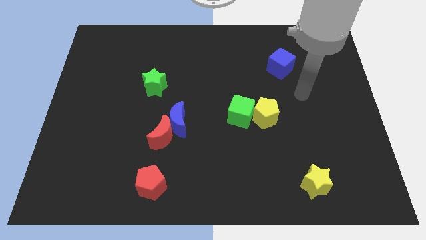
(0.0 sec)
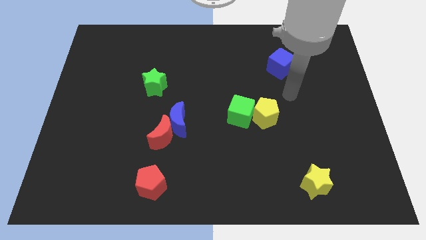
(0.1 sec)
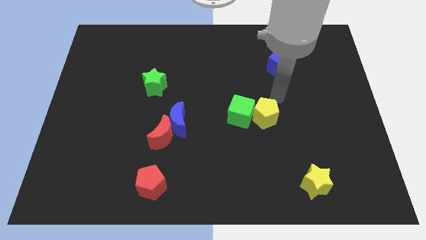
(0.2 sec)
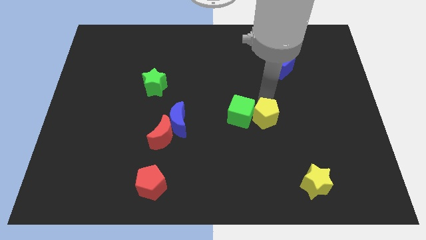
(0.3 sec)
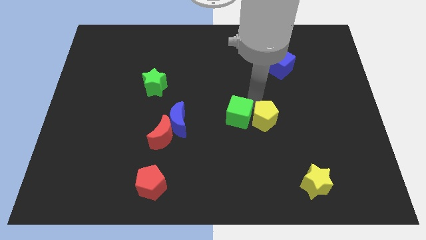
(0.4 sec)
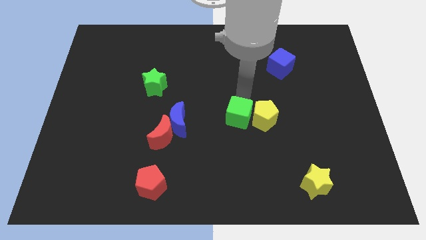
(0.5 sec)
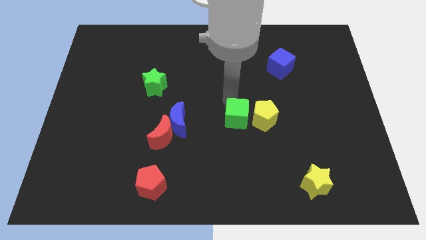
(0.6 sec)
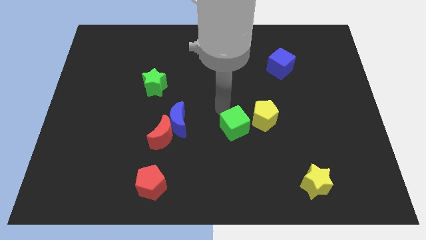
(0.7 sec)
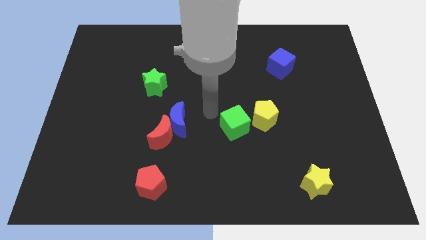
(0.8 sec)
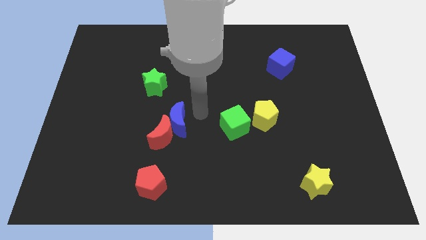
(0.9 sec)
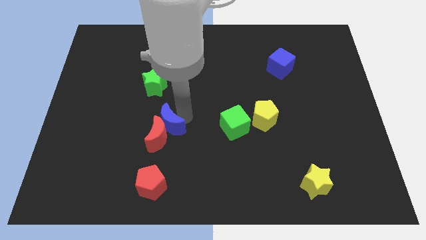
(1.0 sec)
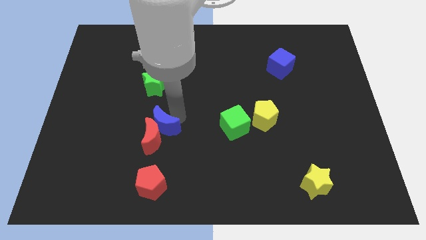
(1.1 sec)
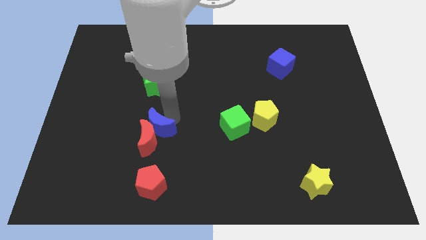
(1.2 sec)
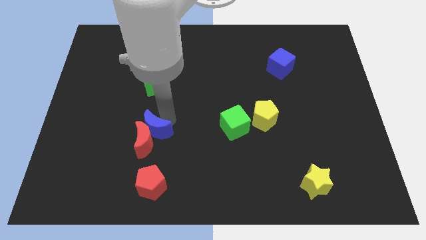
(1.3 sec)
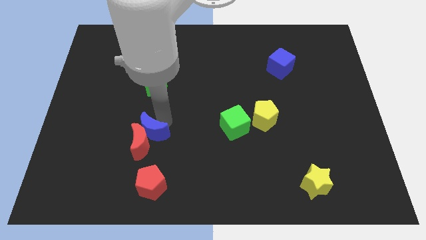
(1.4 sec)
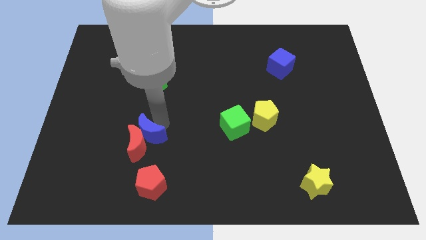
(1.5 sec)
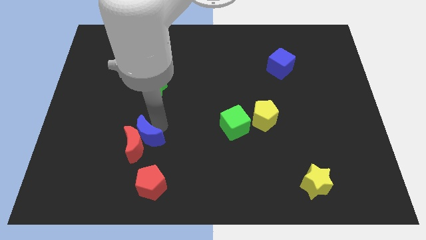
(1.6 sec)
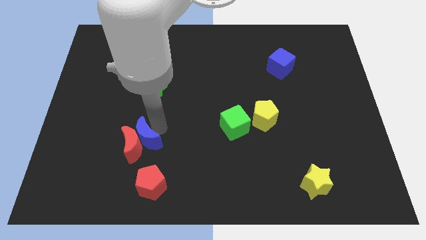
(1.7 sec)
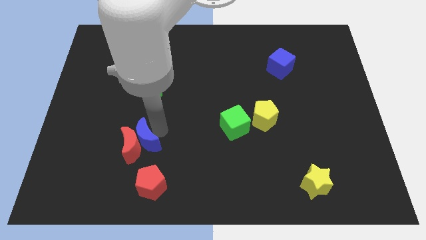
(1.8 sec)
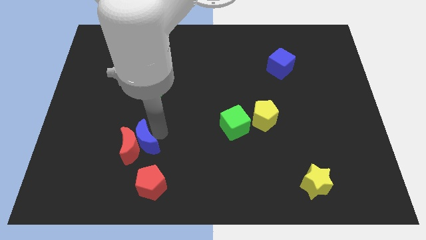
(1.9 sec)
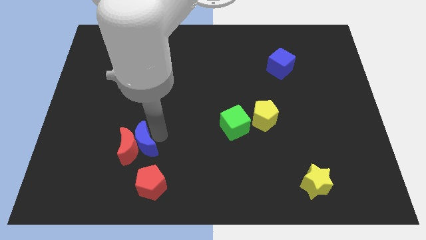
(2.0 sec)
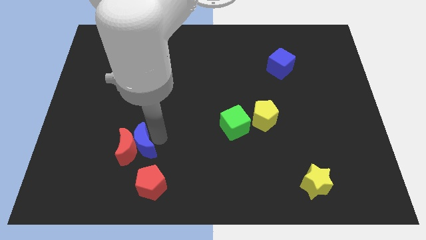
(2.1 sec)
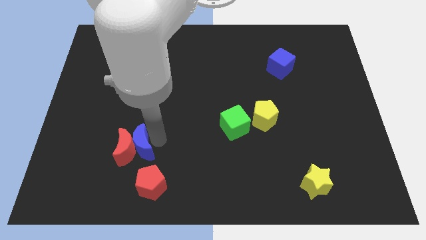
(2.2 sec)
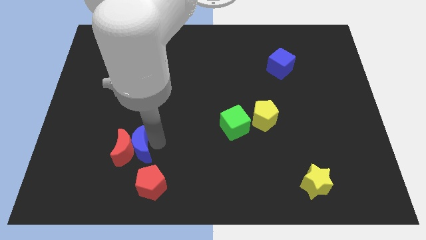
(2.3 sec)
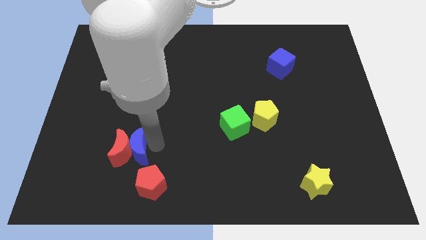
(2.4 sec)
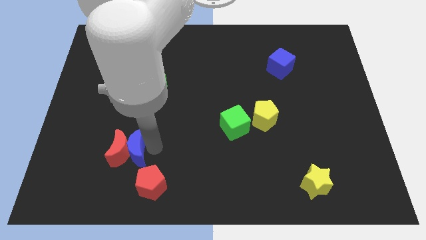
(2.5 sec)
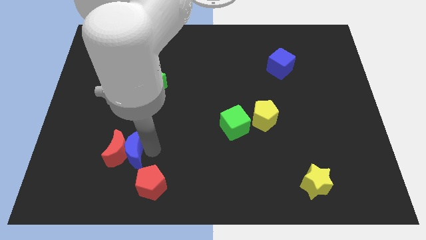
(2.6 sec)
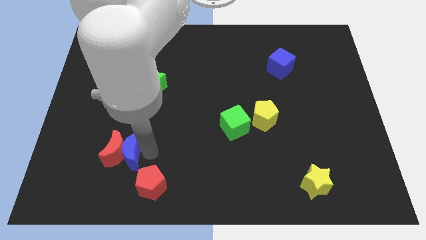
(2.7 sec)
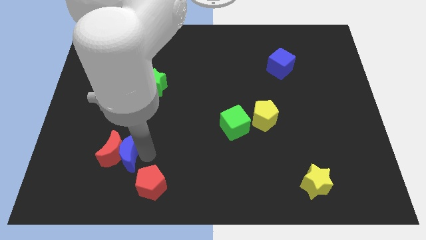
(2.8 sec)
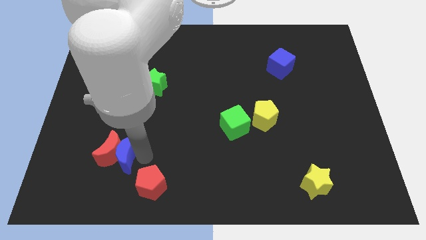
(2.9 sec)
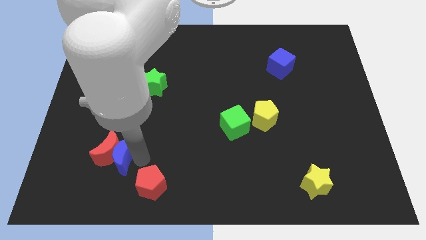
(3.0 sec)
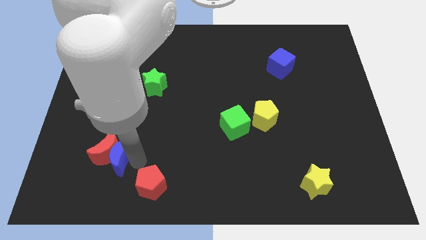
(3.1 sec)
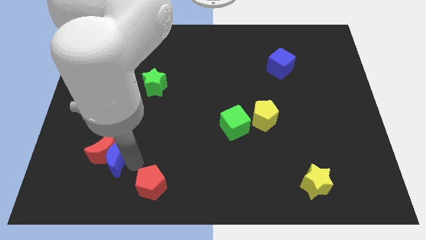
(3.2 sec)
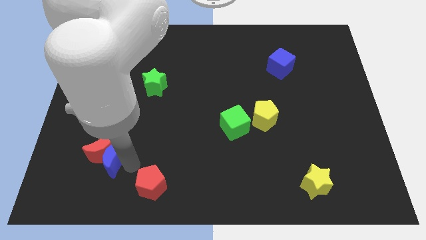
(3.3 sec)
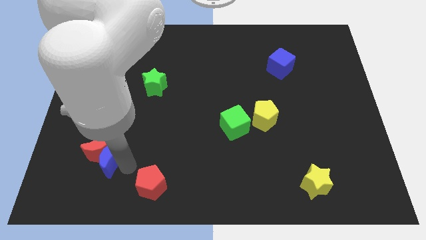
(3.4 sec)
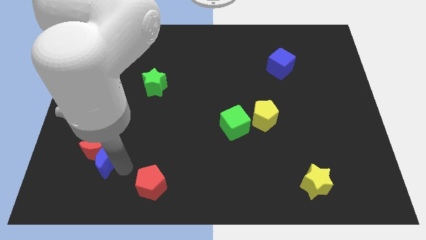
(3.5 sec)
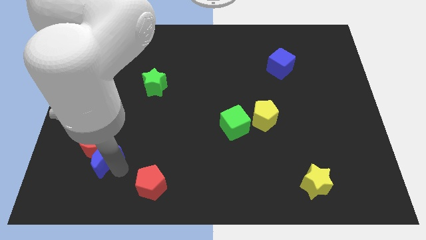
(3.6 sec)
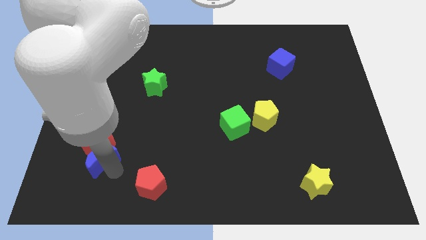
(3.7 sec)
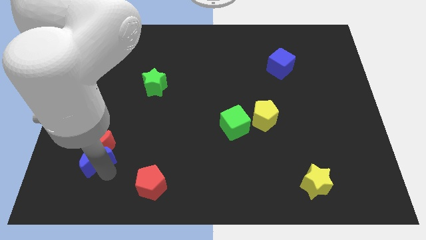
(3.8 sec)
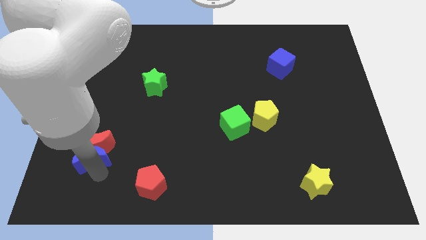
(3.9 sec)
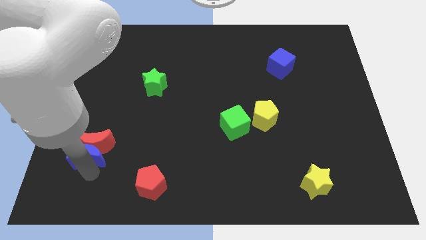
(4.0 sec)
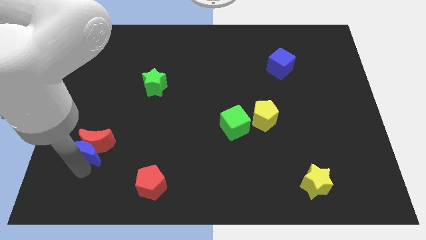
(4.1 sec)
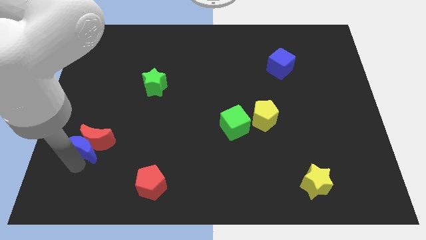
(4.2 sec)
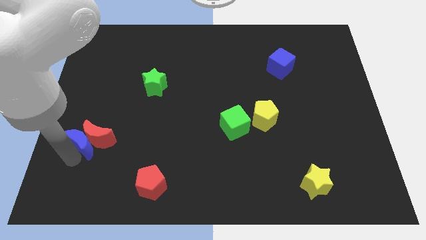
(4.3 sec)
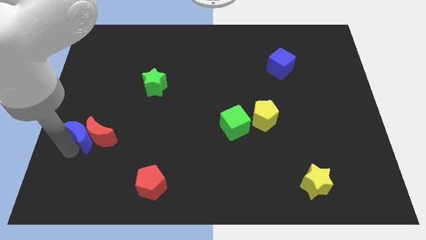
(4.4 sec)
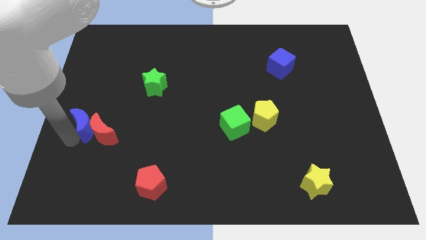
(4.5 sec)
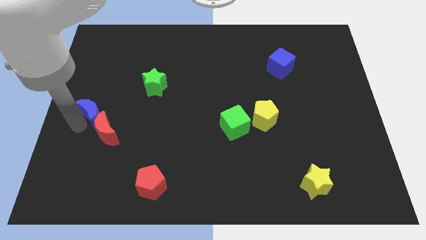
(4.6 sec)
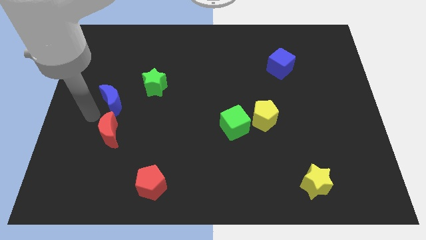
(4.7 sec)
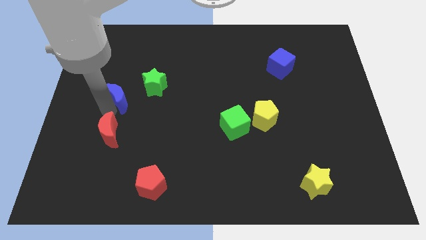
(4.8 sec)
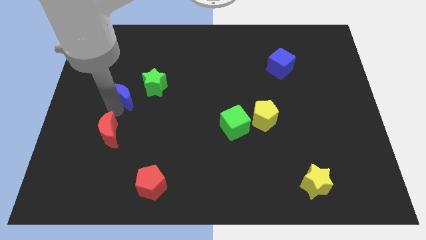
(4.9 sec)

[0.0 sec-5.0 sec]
separate the red moon from the blue moon

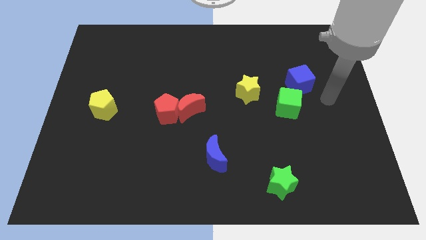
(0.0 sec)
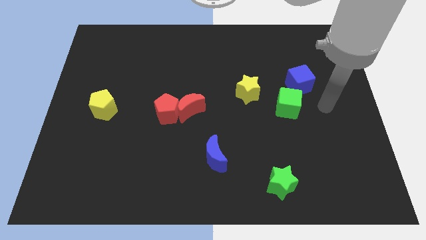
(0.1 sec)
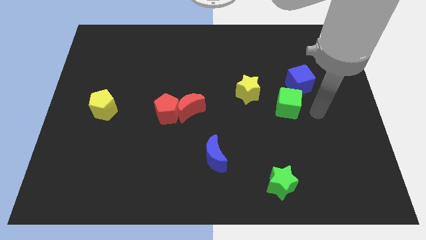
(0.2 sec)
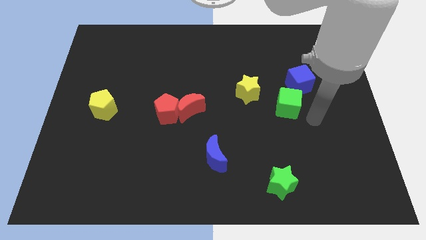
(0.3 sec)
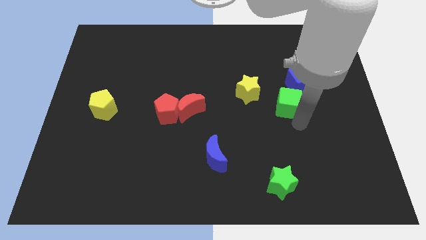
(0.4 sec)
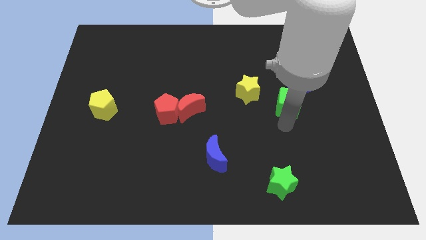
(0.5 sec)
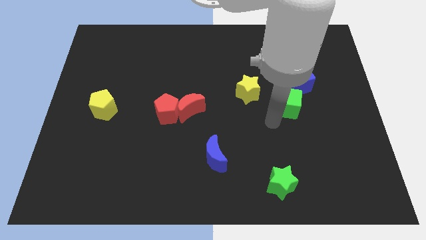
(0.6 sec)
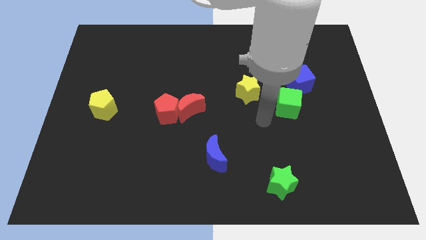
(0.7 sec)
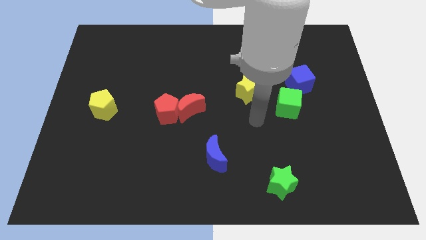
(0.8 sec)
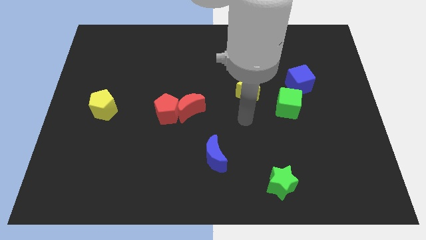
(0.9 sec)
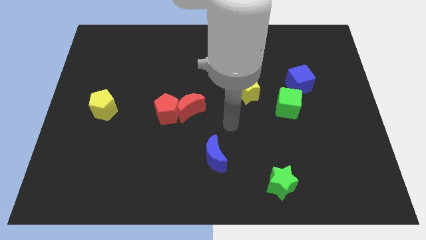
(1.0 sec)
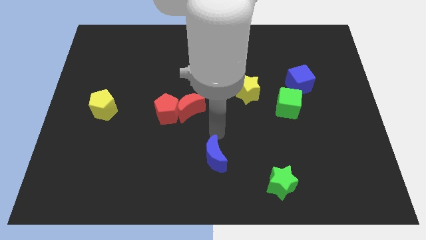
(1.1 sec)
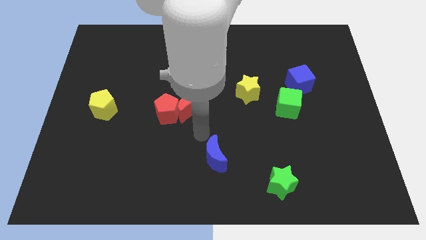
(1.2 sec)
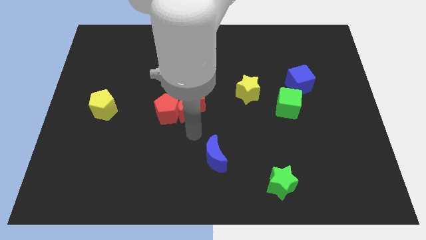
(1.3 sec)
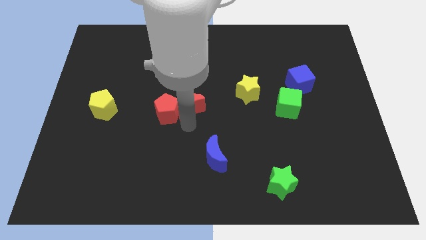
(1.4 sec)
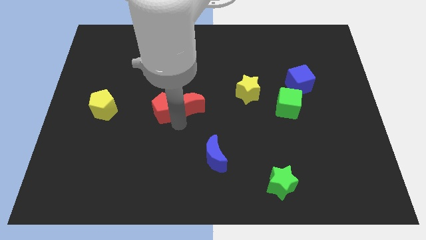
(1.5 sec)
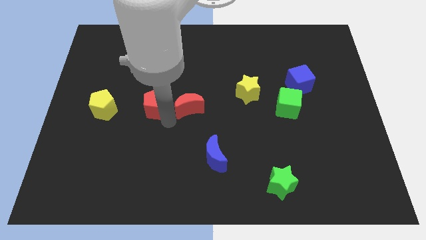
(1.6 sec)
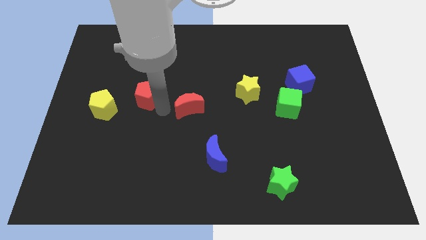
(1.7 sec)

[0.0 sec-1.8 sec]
move the red moon away from the red pentagon

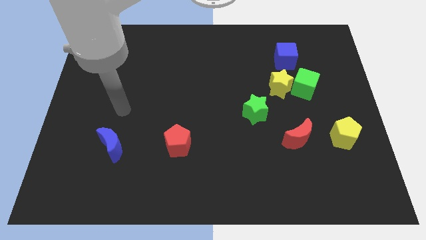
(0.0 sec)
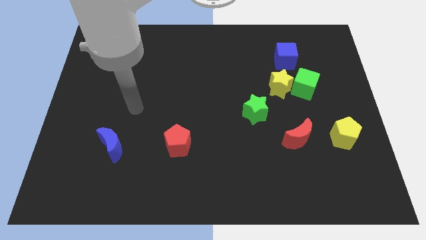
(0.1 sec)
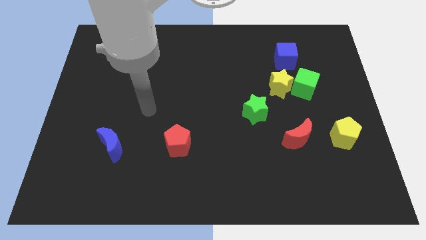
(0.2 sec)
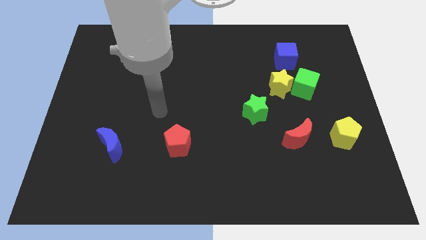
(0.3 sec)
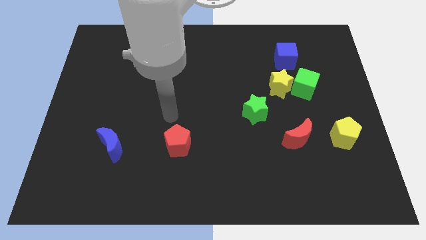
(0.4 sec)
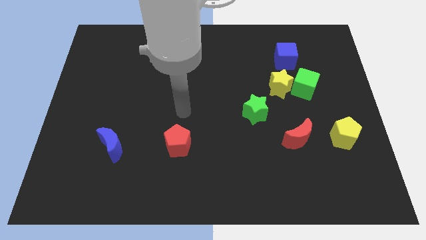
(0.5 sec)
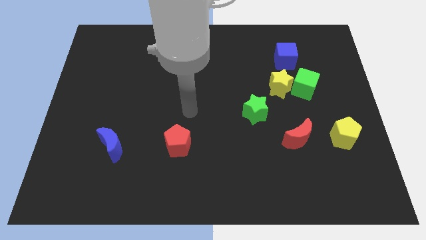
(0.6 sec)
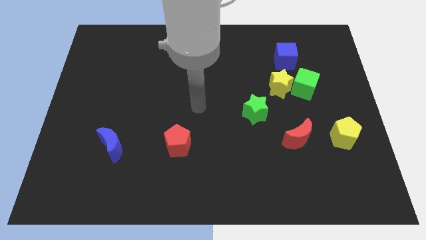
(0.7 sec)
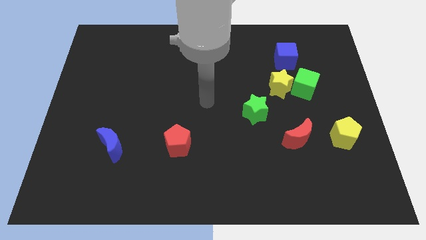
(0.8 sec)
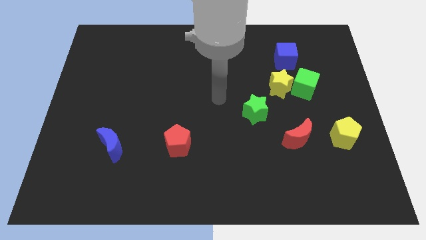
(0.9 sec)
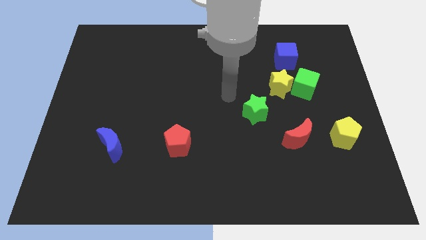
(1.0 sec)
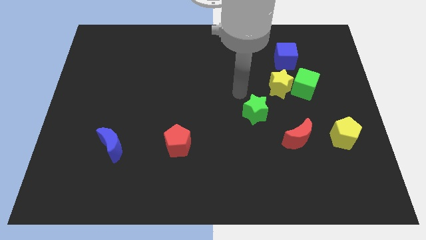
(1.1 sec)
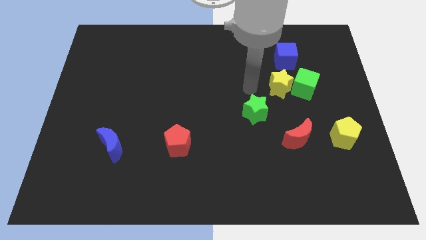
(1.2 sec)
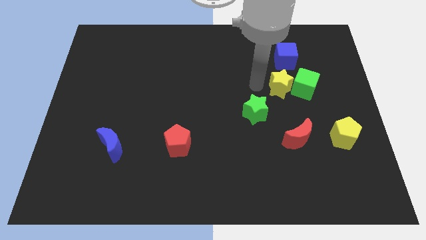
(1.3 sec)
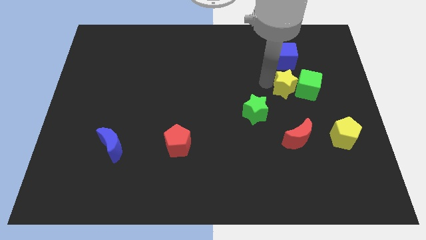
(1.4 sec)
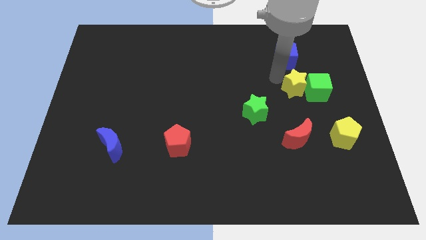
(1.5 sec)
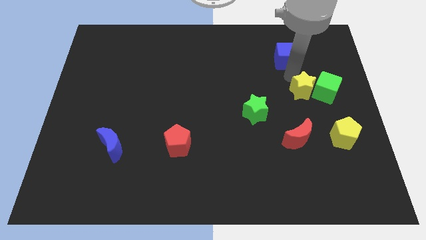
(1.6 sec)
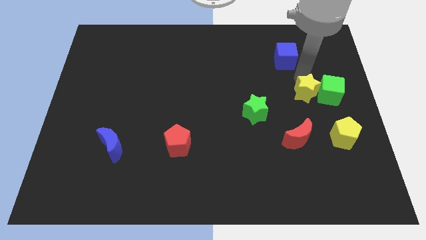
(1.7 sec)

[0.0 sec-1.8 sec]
move the green cube away from the yellow star and blue cube

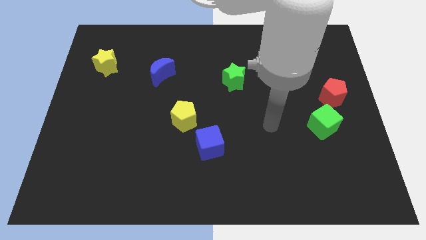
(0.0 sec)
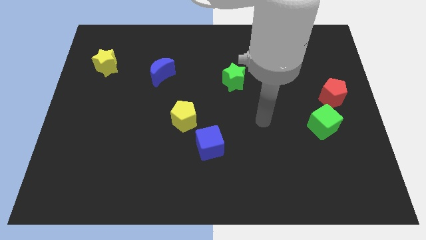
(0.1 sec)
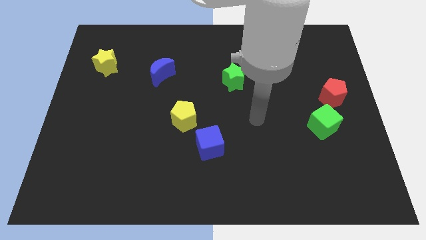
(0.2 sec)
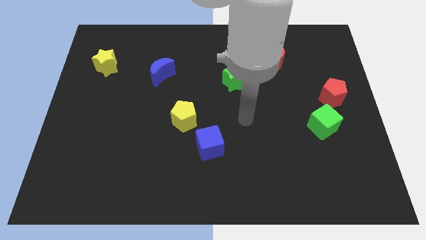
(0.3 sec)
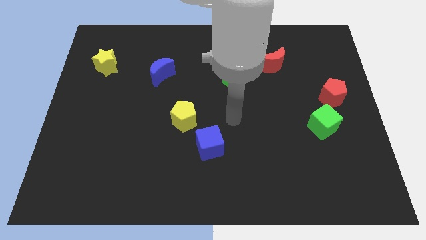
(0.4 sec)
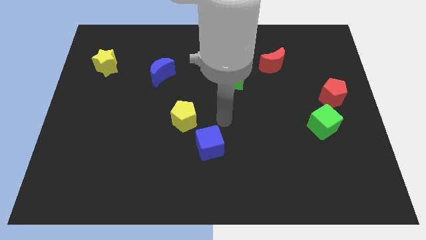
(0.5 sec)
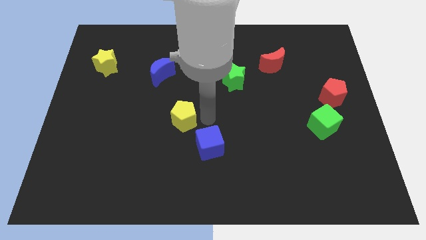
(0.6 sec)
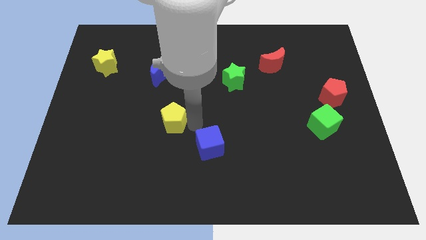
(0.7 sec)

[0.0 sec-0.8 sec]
pull the blue cube apart from the yellow pentagon
